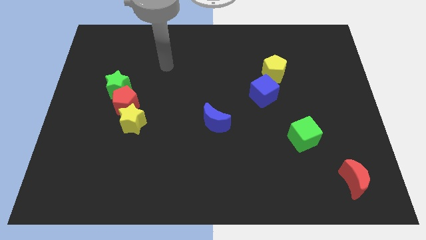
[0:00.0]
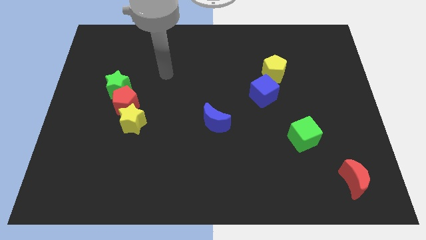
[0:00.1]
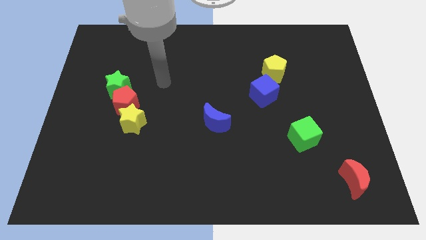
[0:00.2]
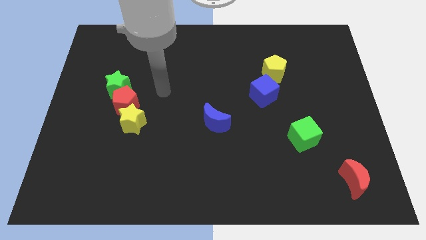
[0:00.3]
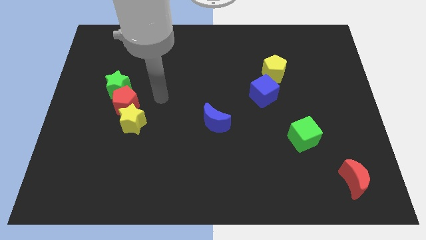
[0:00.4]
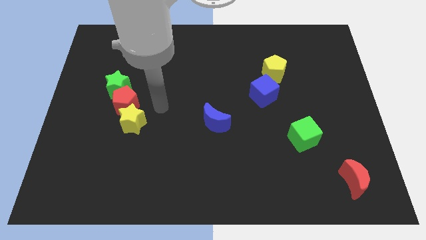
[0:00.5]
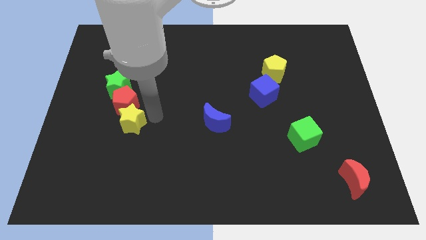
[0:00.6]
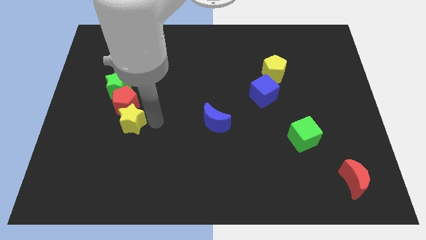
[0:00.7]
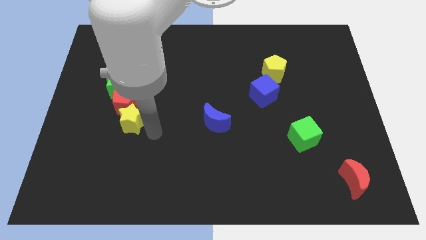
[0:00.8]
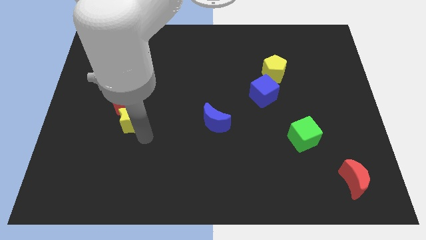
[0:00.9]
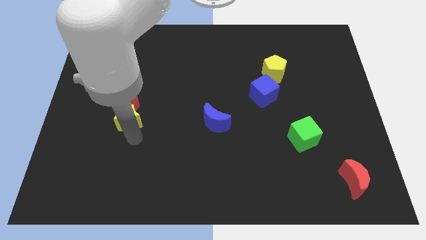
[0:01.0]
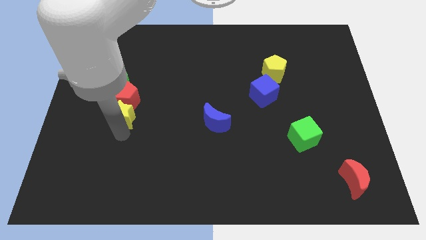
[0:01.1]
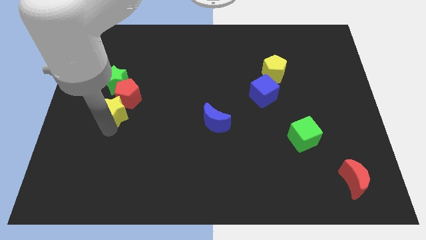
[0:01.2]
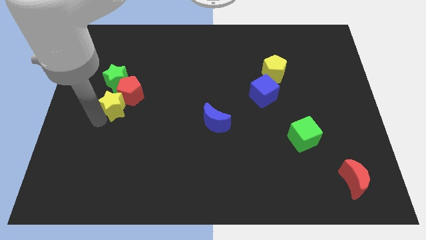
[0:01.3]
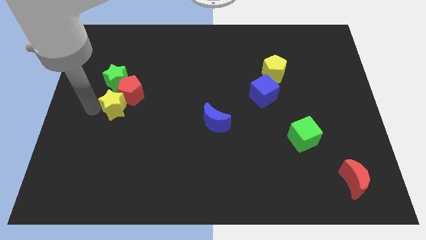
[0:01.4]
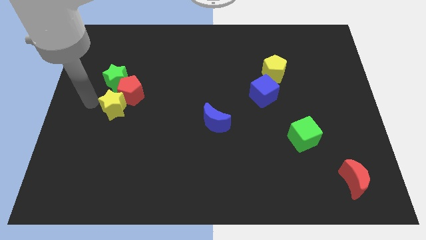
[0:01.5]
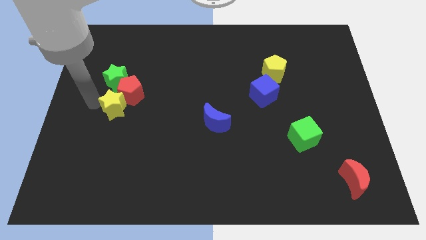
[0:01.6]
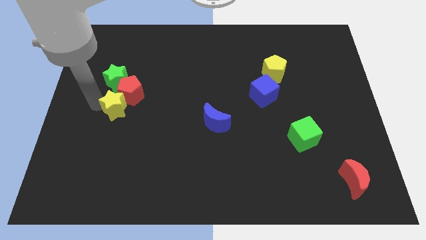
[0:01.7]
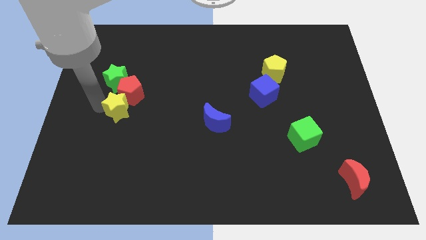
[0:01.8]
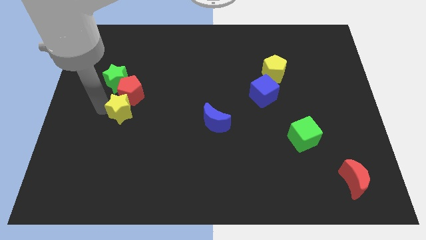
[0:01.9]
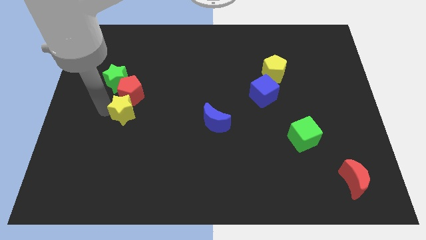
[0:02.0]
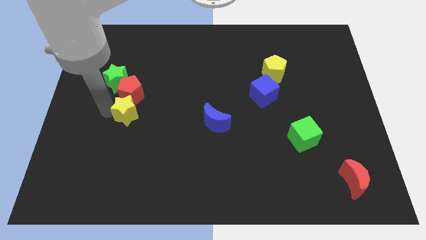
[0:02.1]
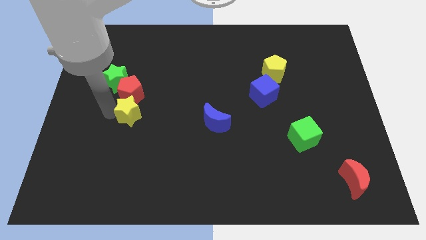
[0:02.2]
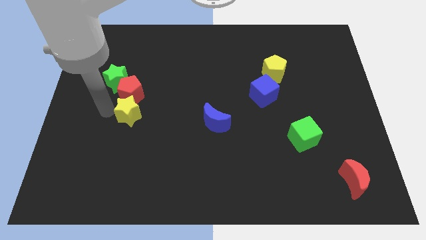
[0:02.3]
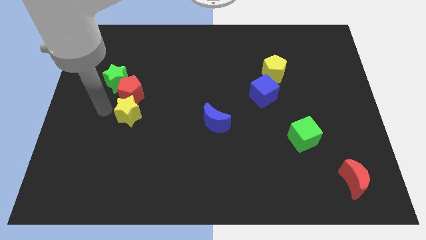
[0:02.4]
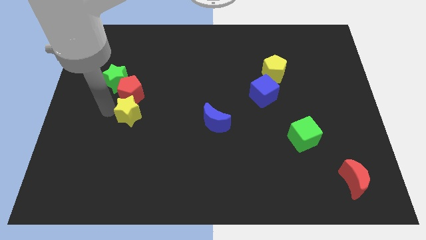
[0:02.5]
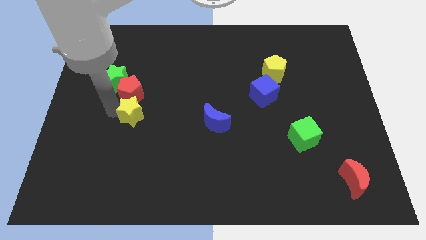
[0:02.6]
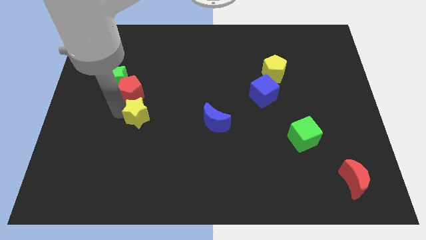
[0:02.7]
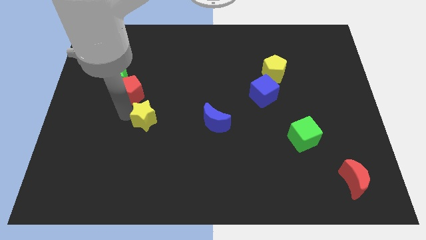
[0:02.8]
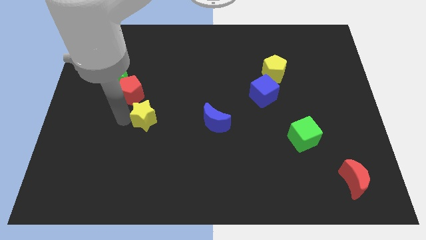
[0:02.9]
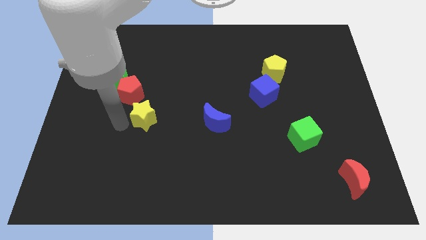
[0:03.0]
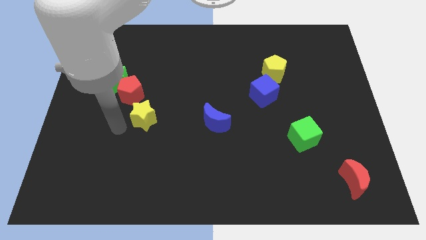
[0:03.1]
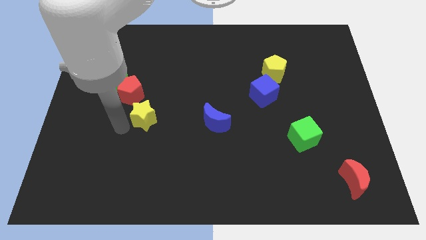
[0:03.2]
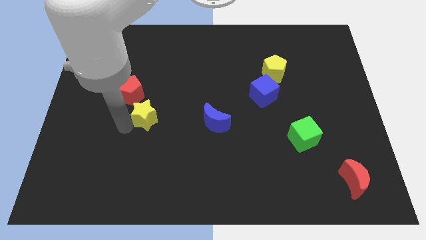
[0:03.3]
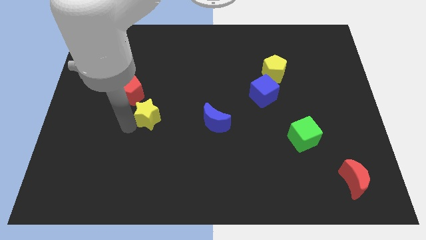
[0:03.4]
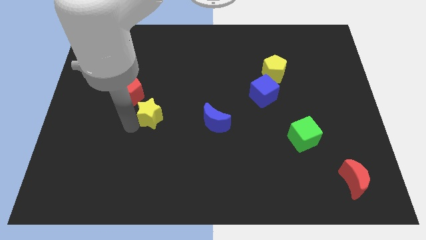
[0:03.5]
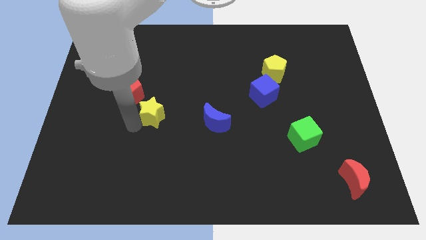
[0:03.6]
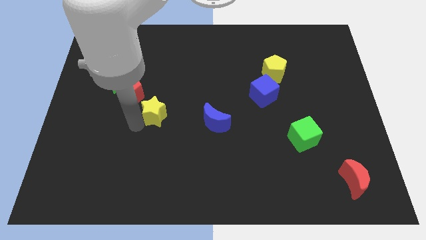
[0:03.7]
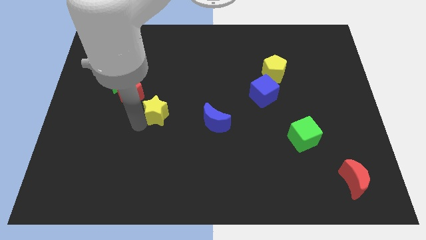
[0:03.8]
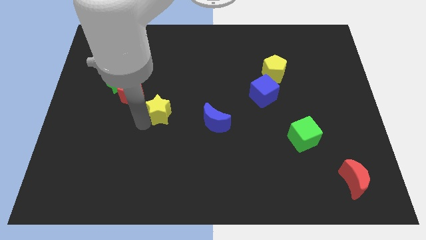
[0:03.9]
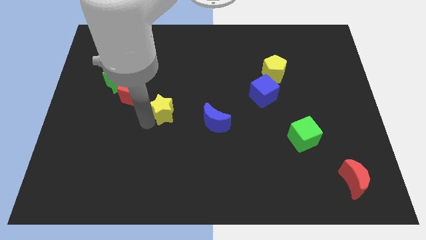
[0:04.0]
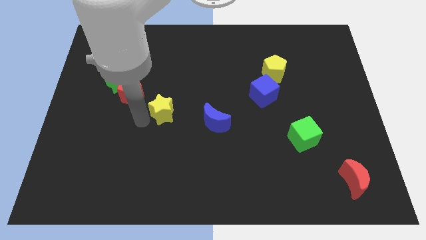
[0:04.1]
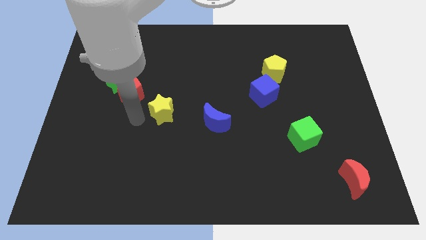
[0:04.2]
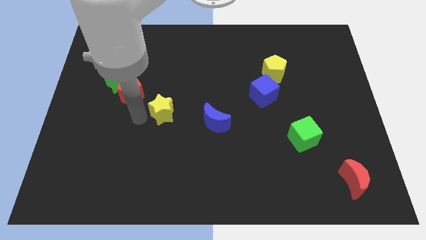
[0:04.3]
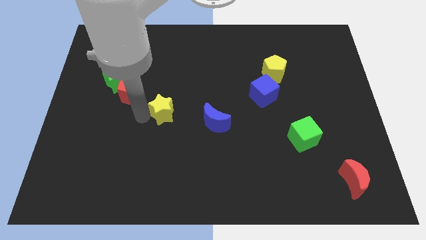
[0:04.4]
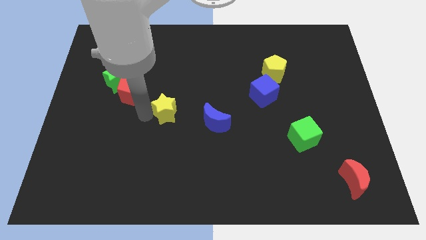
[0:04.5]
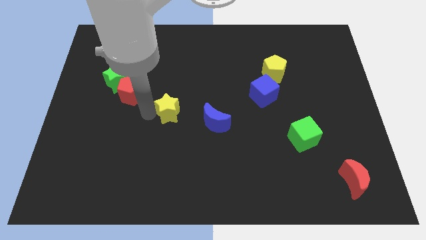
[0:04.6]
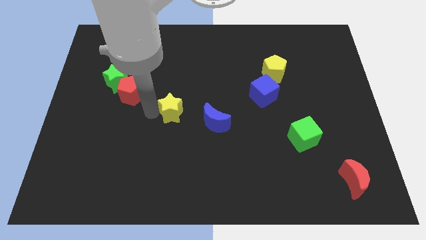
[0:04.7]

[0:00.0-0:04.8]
put the yellow star diagonally up and to the left of the blue moon

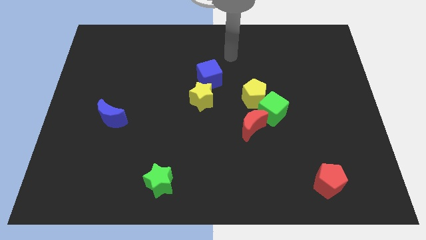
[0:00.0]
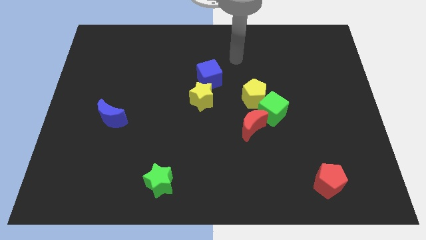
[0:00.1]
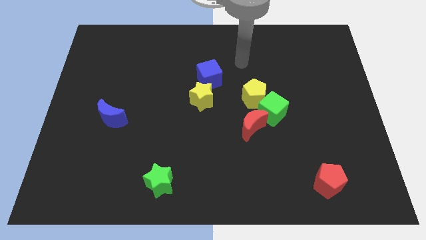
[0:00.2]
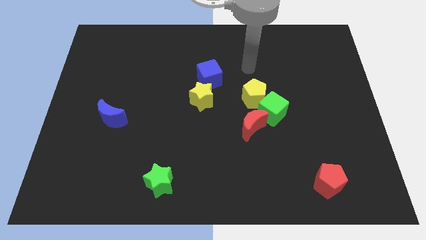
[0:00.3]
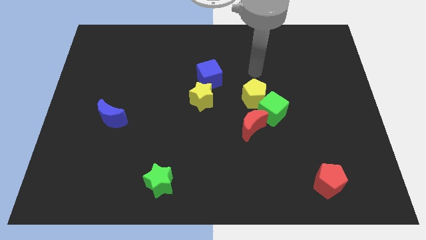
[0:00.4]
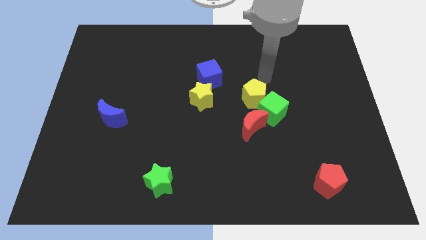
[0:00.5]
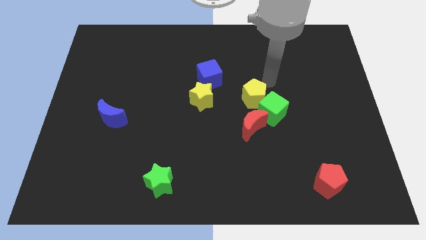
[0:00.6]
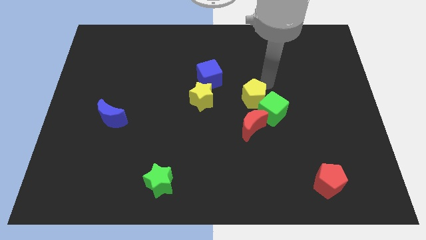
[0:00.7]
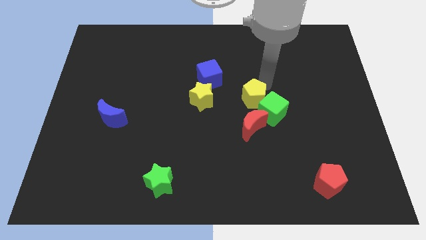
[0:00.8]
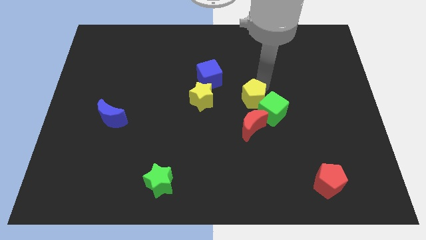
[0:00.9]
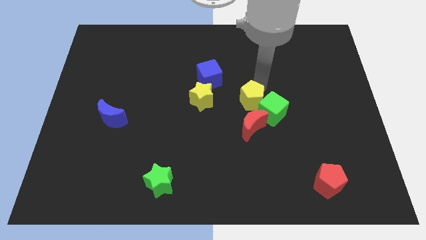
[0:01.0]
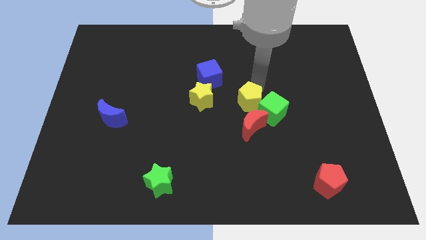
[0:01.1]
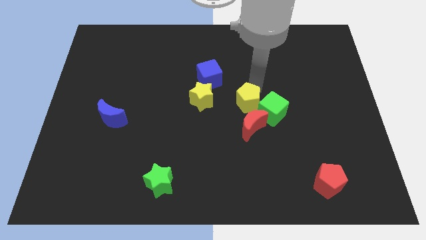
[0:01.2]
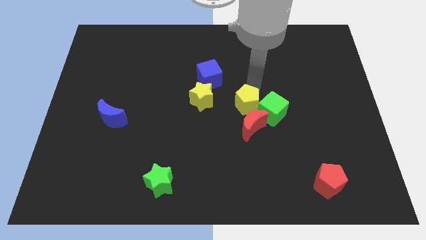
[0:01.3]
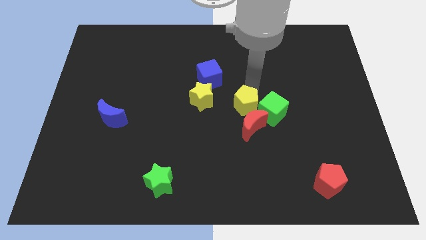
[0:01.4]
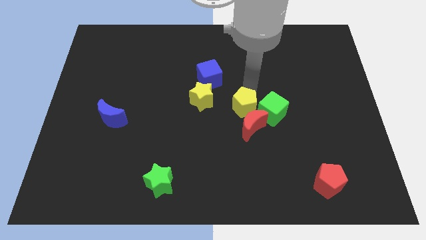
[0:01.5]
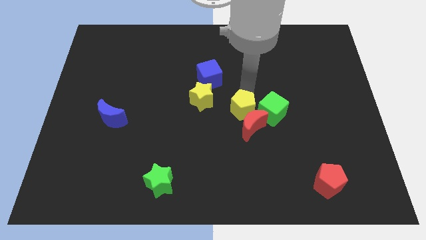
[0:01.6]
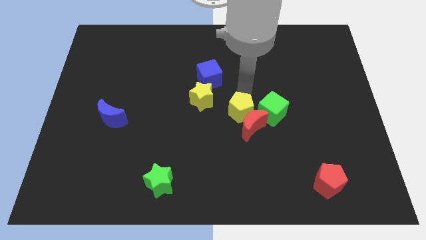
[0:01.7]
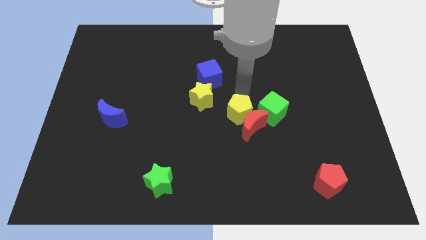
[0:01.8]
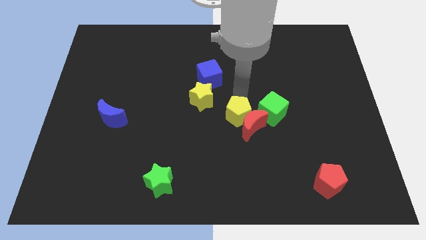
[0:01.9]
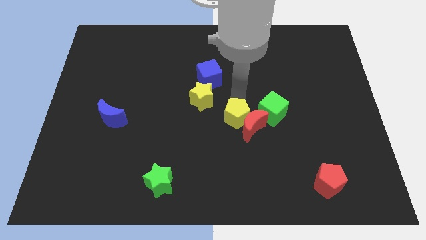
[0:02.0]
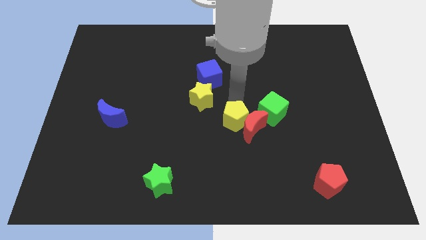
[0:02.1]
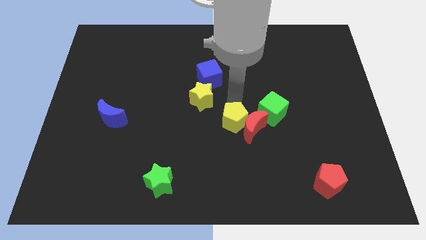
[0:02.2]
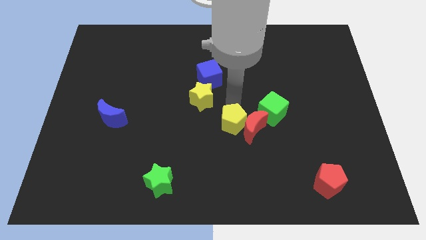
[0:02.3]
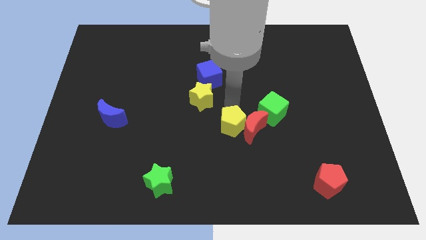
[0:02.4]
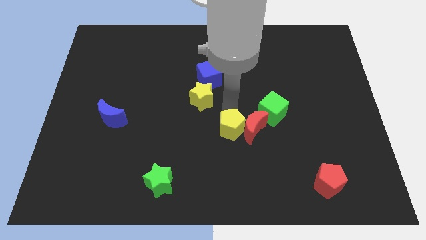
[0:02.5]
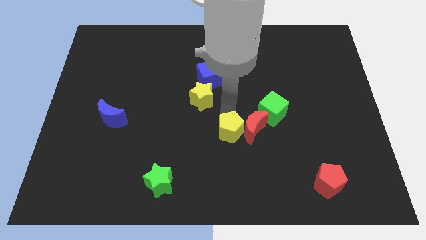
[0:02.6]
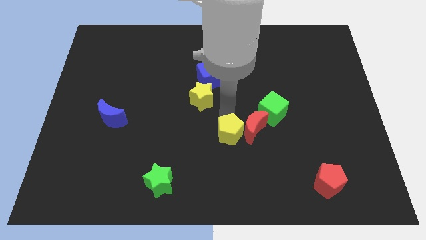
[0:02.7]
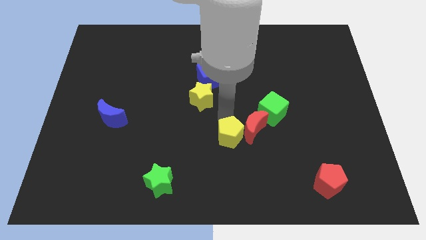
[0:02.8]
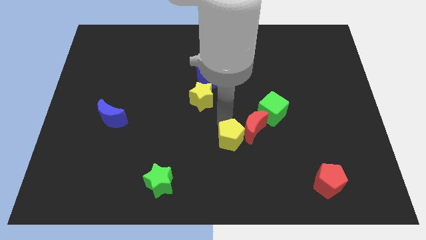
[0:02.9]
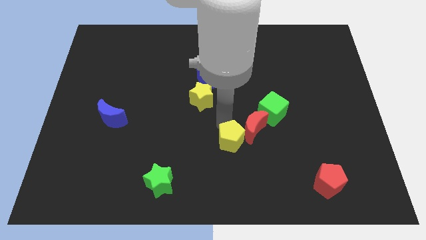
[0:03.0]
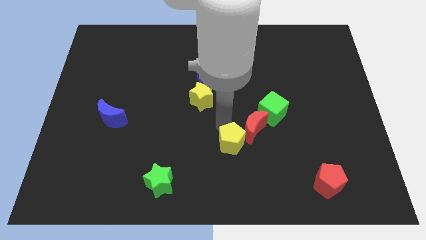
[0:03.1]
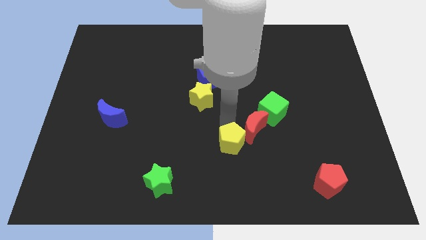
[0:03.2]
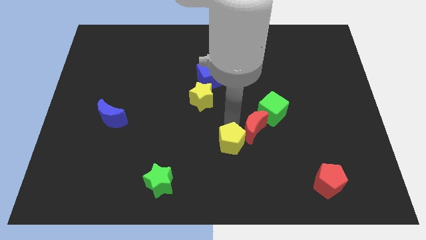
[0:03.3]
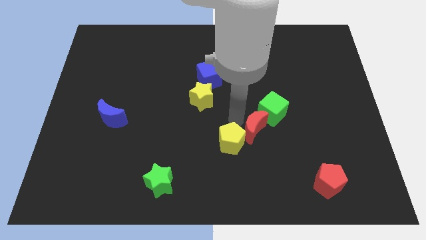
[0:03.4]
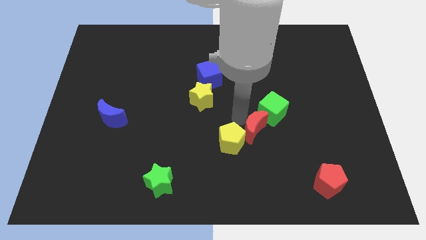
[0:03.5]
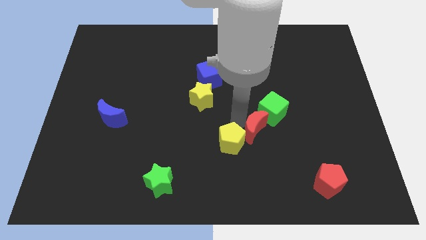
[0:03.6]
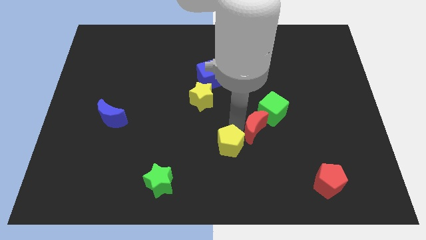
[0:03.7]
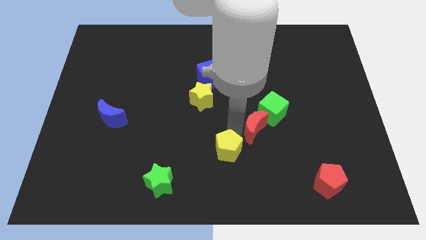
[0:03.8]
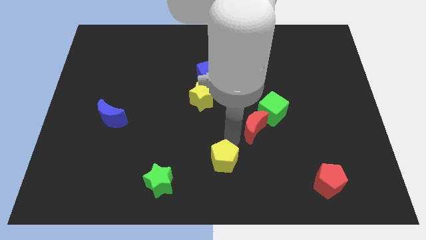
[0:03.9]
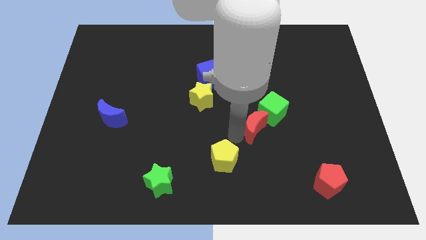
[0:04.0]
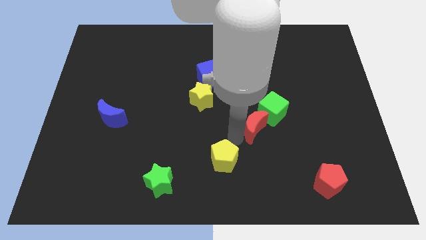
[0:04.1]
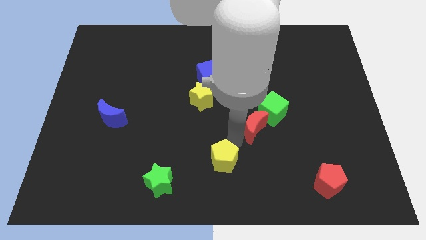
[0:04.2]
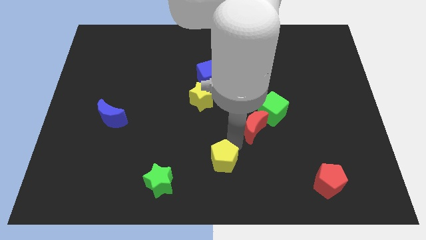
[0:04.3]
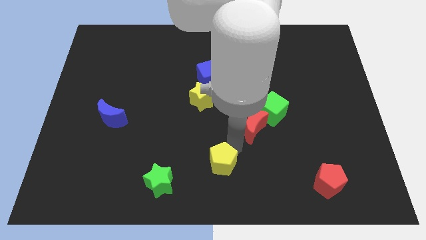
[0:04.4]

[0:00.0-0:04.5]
put the yellow pentagon right of the green star
